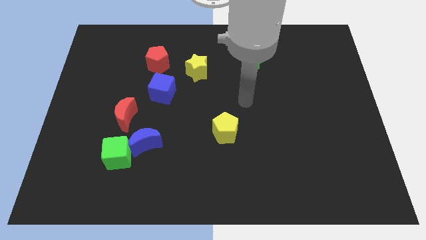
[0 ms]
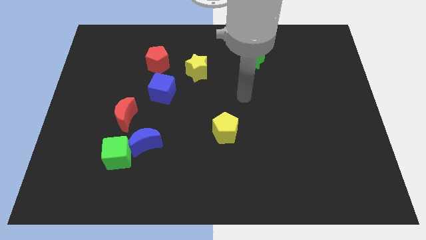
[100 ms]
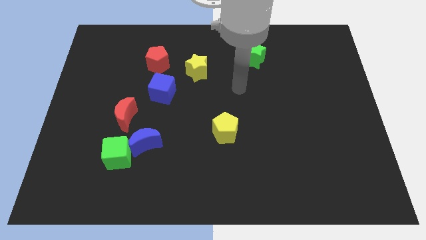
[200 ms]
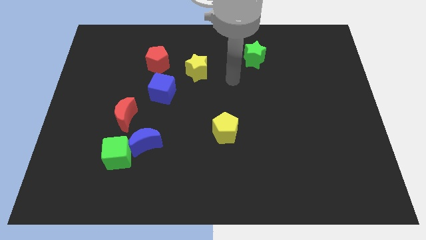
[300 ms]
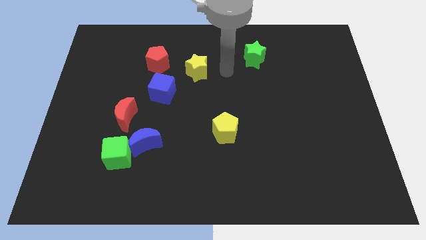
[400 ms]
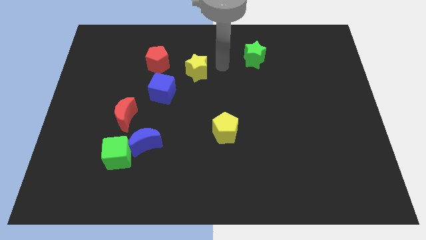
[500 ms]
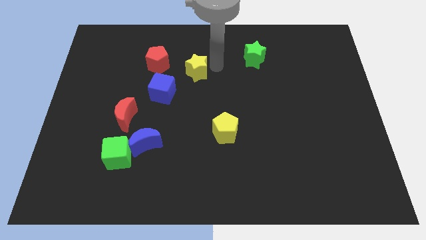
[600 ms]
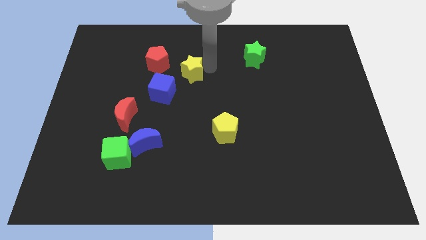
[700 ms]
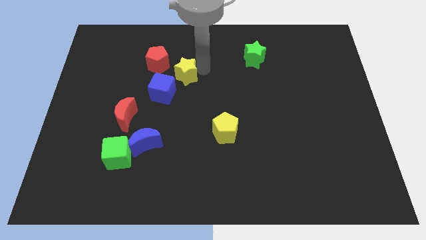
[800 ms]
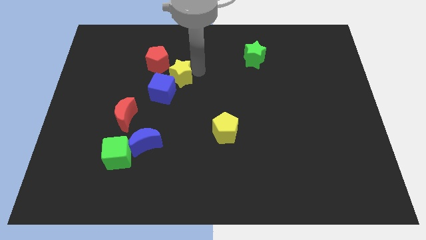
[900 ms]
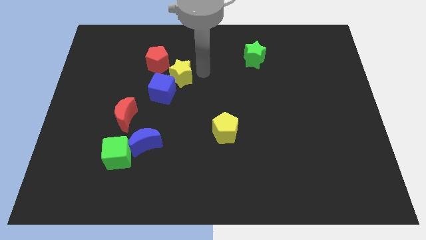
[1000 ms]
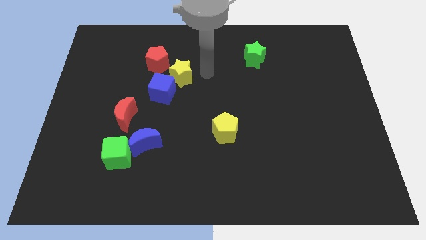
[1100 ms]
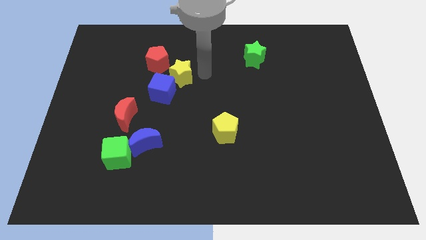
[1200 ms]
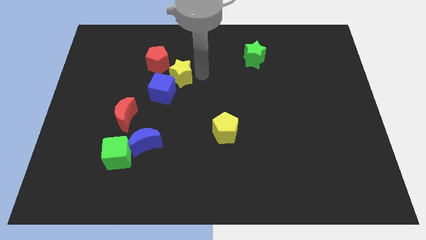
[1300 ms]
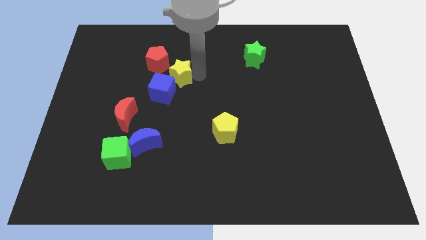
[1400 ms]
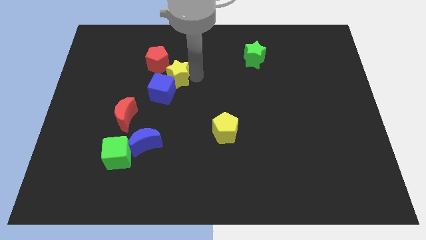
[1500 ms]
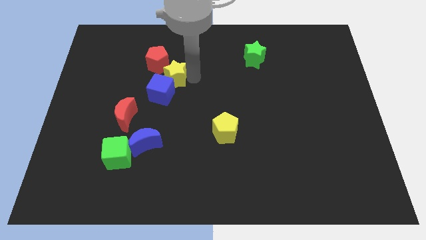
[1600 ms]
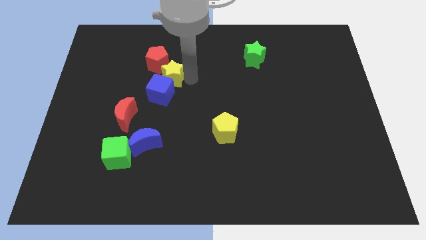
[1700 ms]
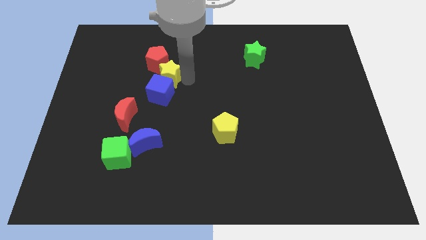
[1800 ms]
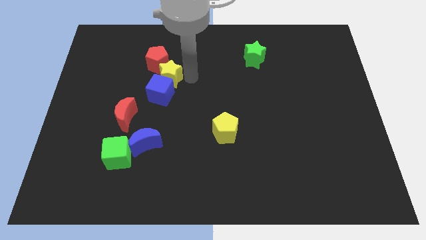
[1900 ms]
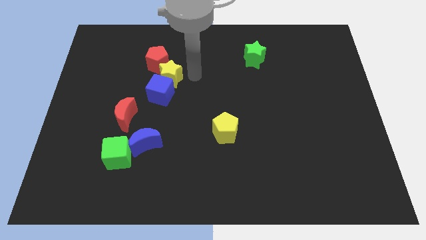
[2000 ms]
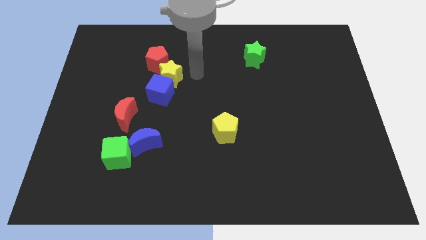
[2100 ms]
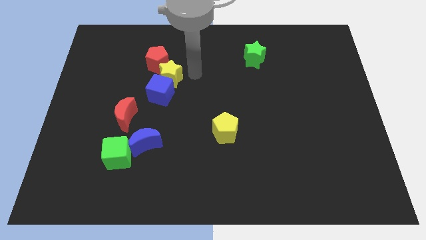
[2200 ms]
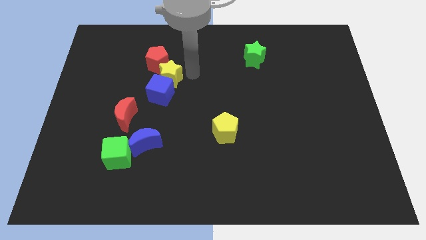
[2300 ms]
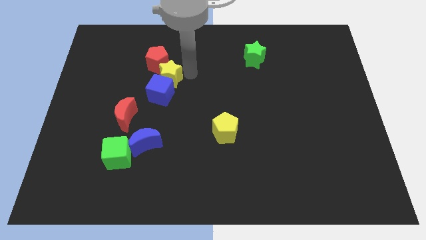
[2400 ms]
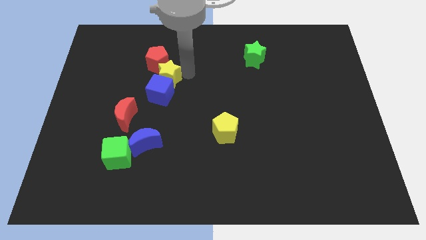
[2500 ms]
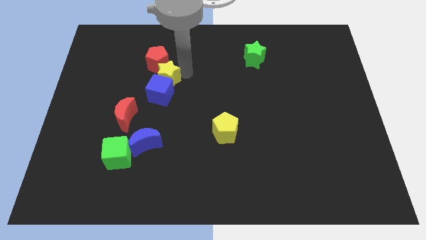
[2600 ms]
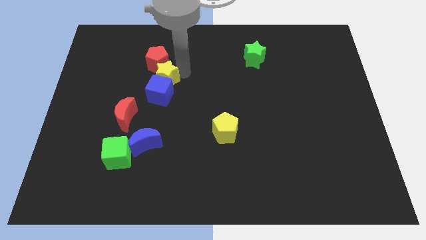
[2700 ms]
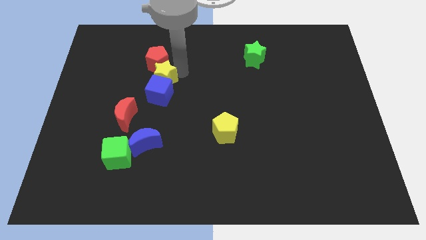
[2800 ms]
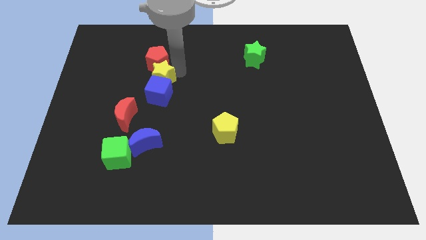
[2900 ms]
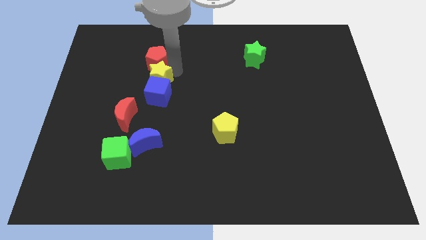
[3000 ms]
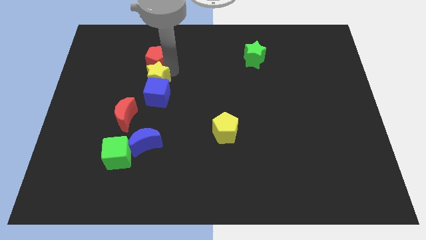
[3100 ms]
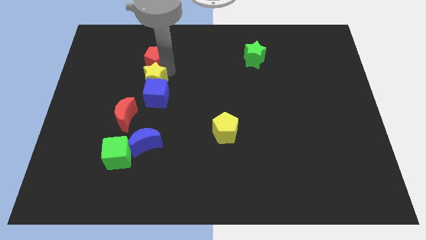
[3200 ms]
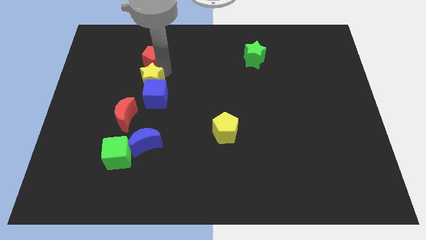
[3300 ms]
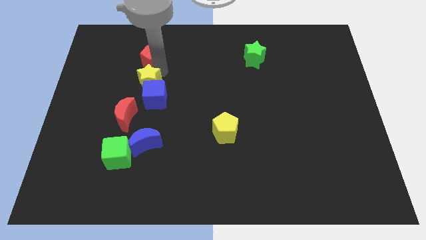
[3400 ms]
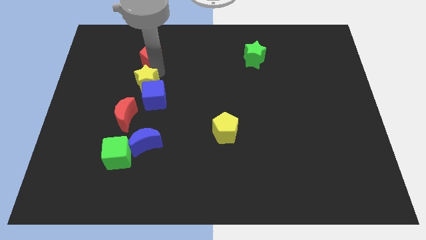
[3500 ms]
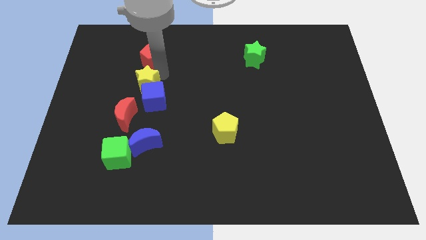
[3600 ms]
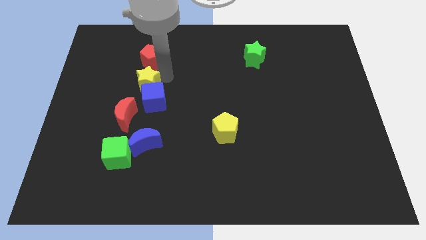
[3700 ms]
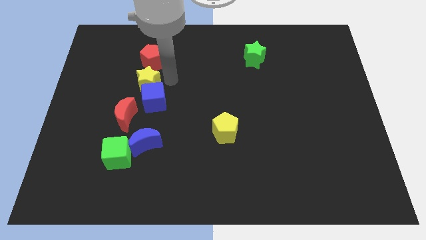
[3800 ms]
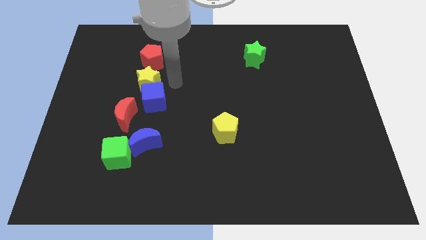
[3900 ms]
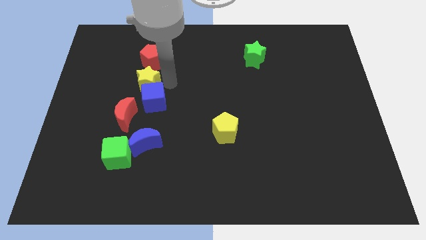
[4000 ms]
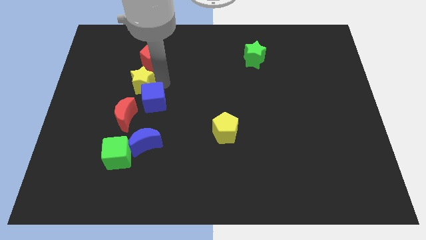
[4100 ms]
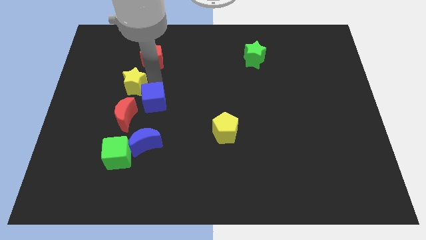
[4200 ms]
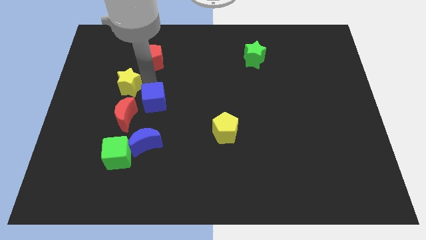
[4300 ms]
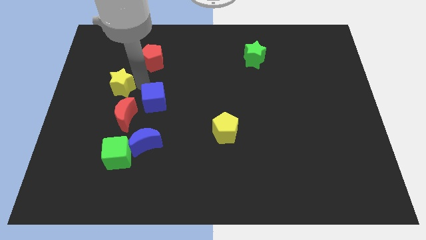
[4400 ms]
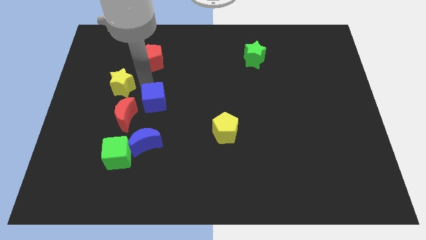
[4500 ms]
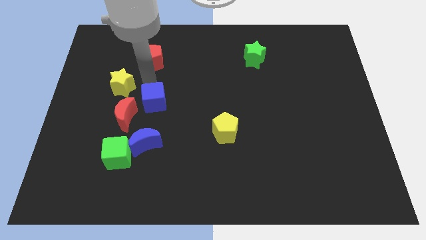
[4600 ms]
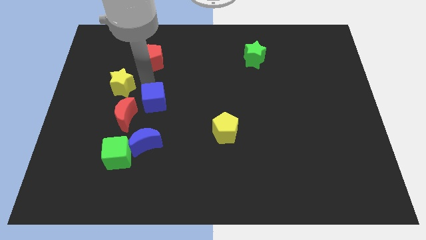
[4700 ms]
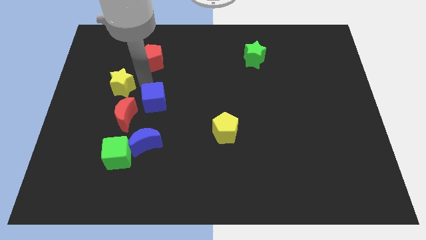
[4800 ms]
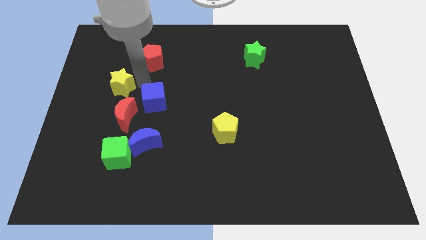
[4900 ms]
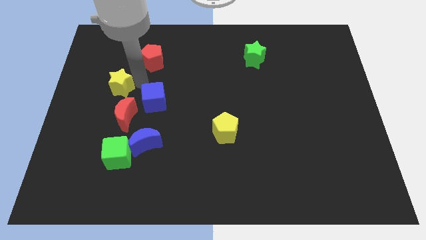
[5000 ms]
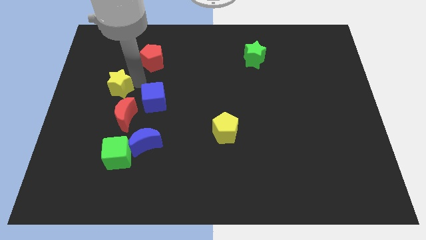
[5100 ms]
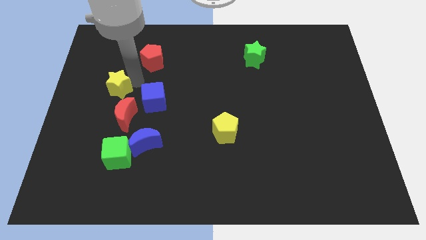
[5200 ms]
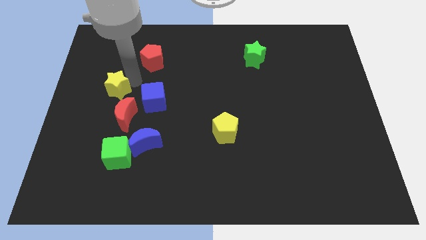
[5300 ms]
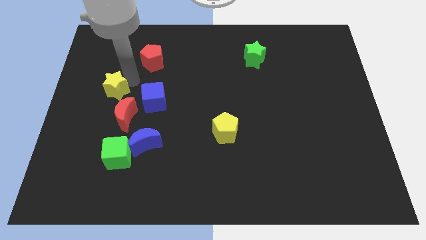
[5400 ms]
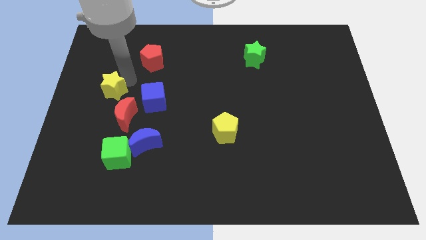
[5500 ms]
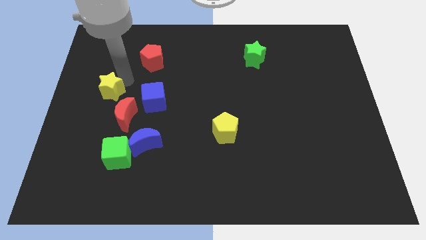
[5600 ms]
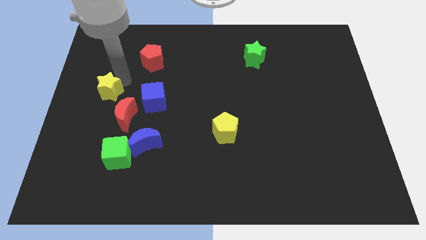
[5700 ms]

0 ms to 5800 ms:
push the yellow star to the left side of the board

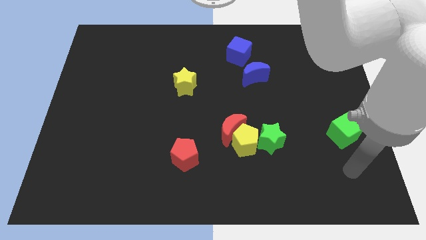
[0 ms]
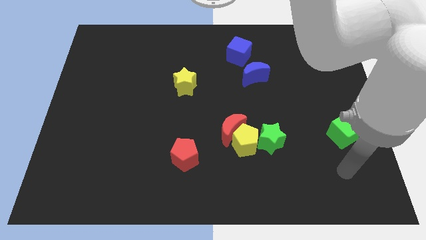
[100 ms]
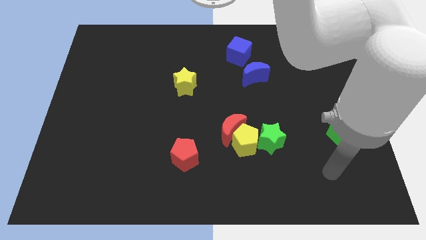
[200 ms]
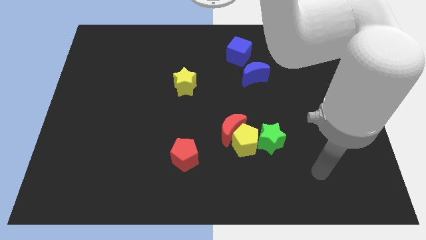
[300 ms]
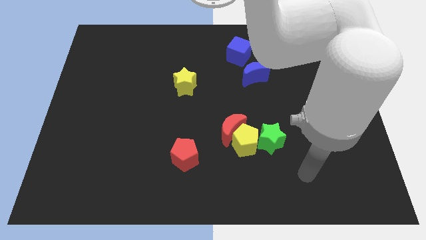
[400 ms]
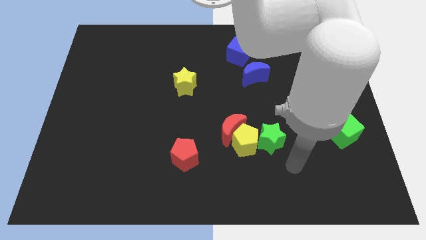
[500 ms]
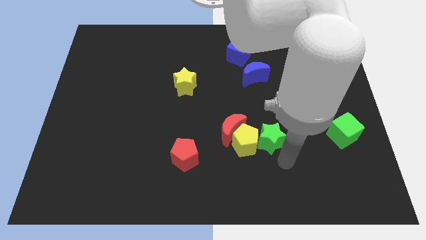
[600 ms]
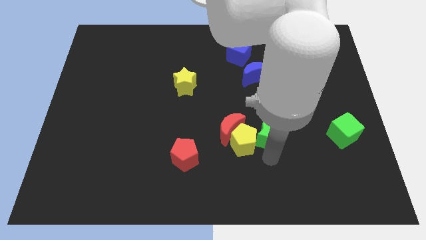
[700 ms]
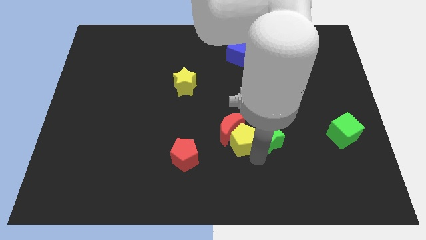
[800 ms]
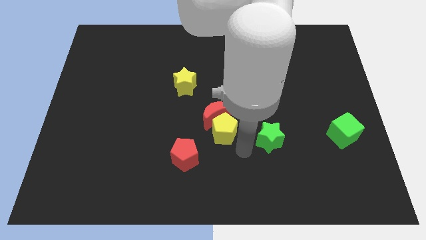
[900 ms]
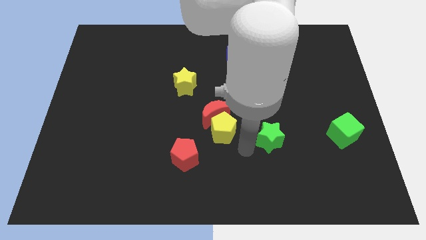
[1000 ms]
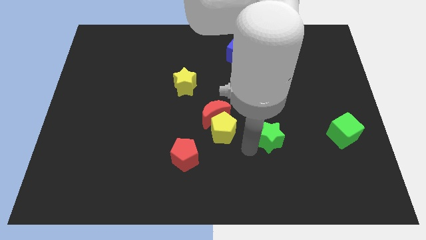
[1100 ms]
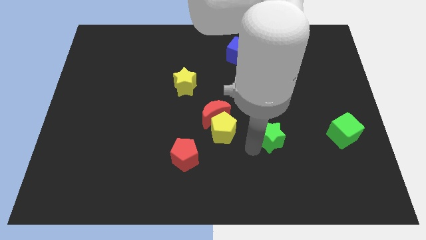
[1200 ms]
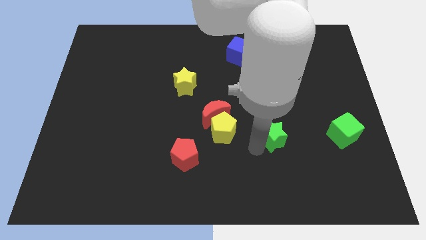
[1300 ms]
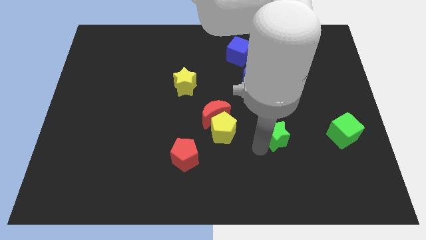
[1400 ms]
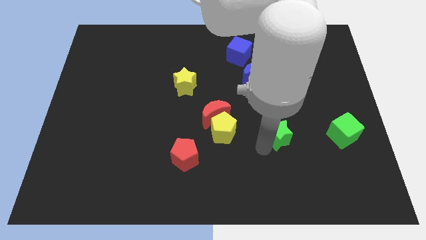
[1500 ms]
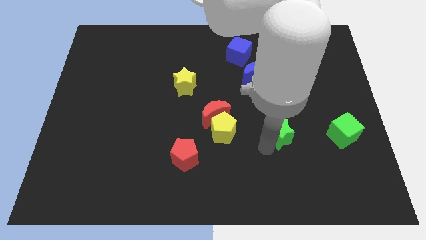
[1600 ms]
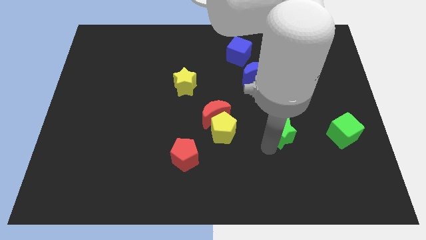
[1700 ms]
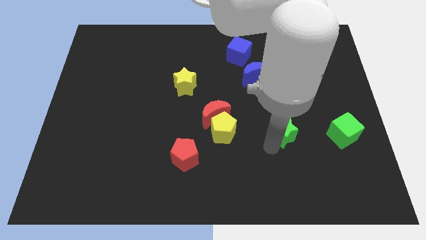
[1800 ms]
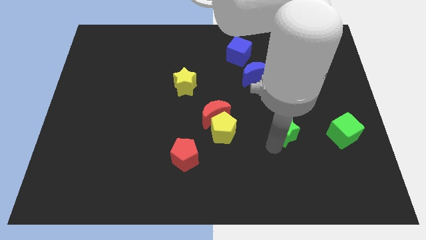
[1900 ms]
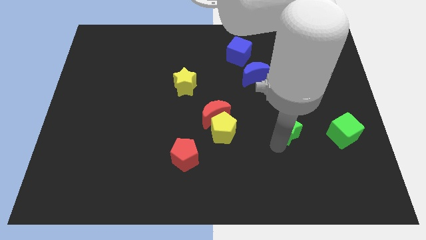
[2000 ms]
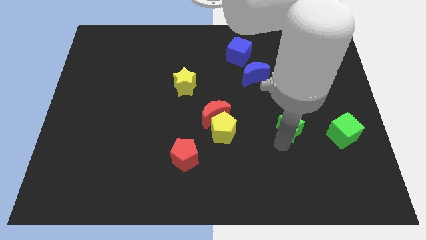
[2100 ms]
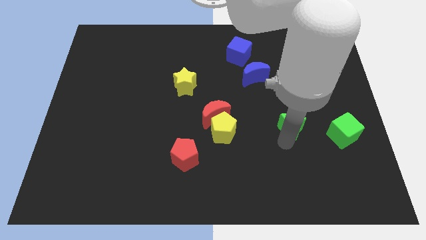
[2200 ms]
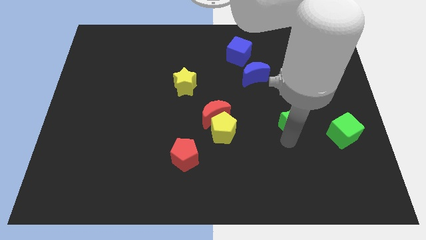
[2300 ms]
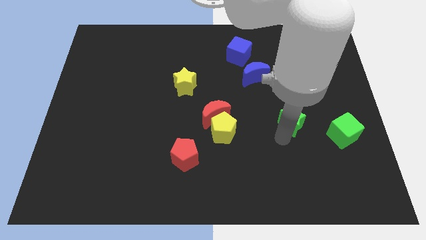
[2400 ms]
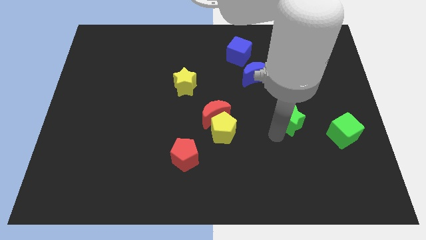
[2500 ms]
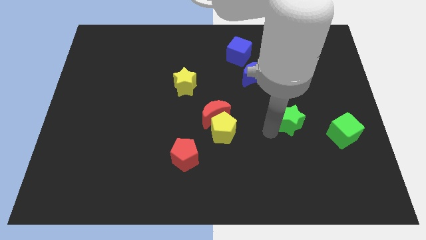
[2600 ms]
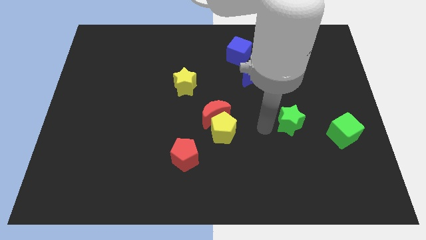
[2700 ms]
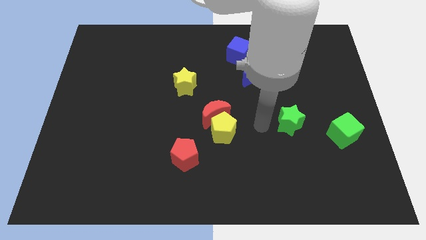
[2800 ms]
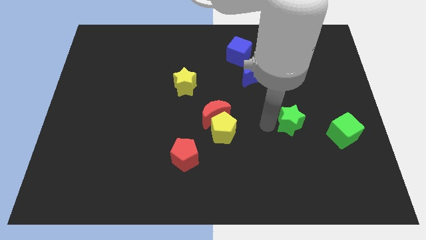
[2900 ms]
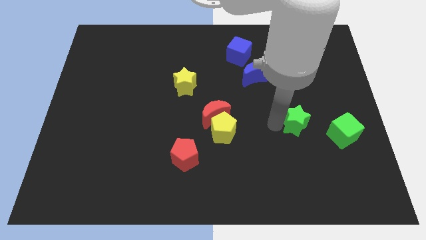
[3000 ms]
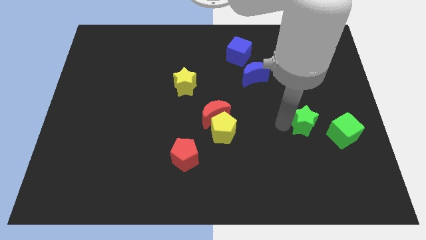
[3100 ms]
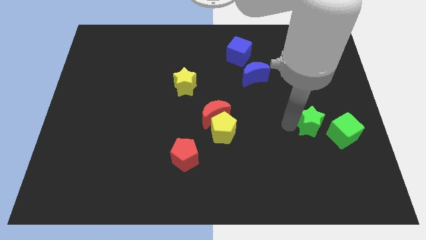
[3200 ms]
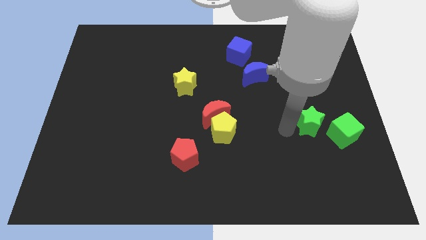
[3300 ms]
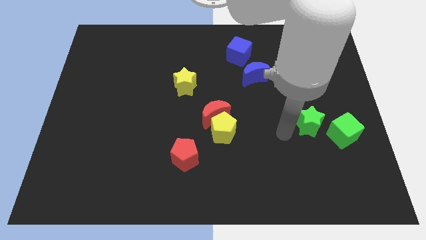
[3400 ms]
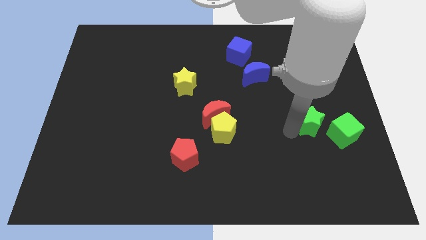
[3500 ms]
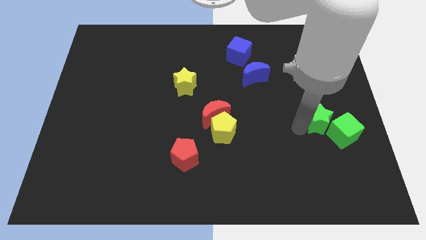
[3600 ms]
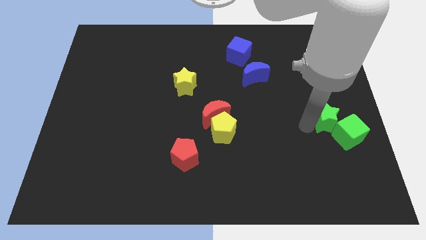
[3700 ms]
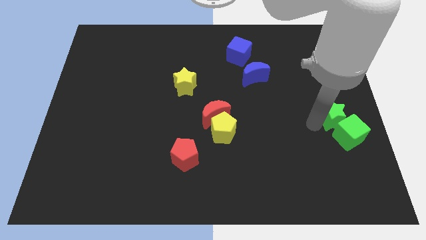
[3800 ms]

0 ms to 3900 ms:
put the green star to the center right
